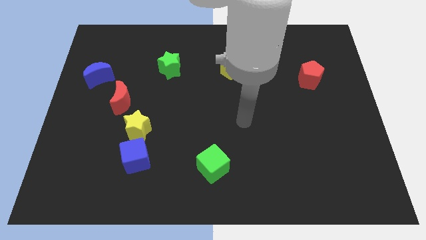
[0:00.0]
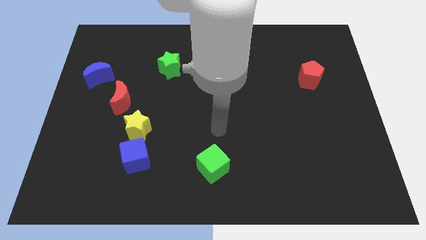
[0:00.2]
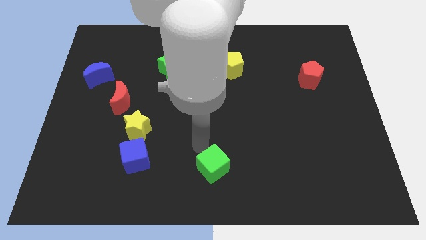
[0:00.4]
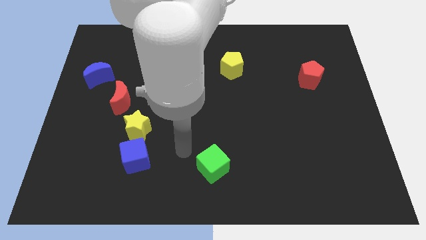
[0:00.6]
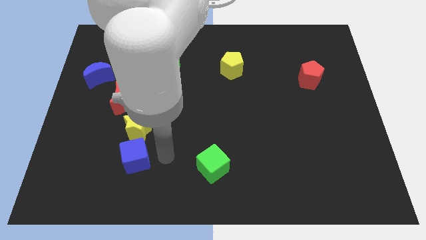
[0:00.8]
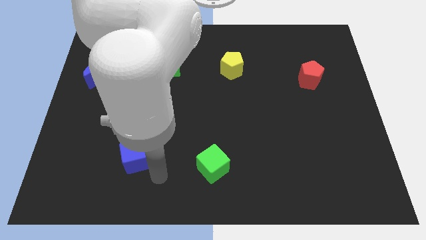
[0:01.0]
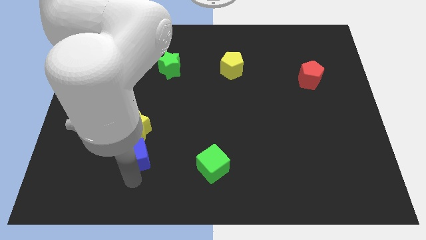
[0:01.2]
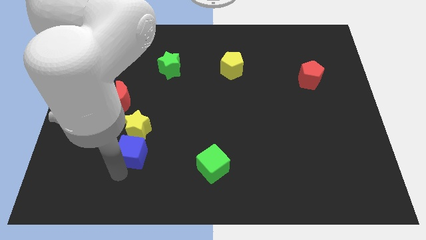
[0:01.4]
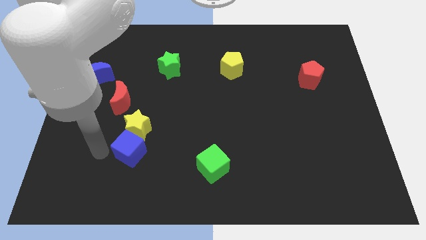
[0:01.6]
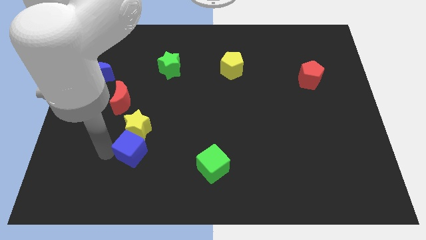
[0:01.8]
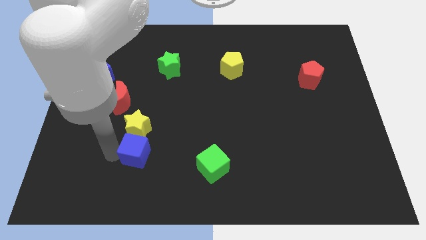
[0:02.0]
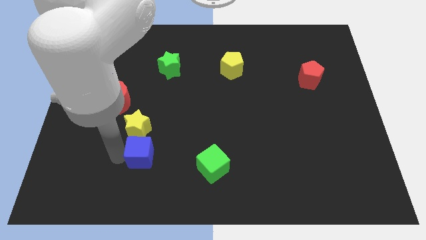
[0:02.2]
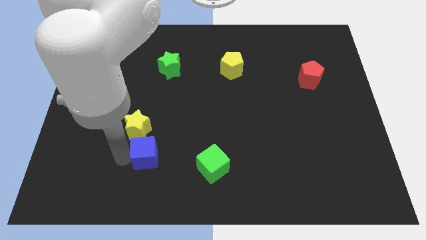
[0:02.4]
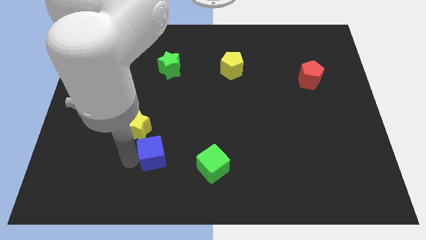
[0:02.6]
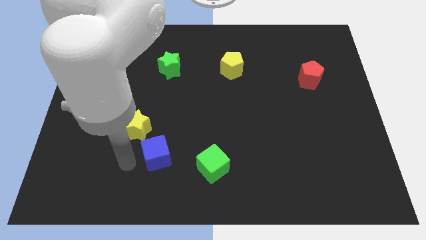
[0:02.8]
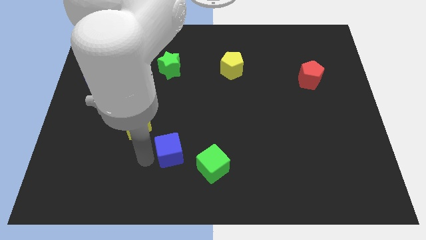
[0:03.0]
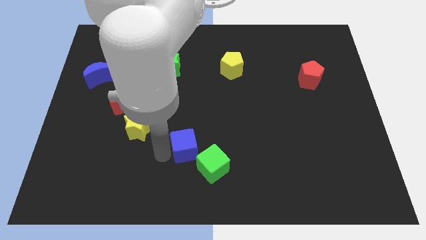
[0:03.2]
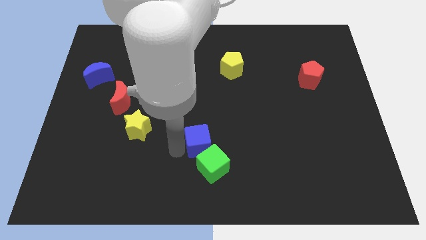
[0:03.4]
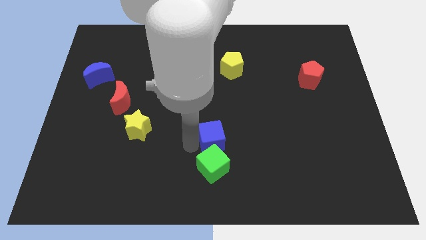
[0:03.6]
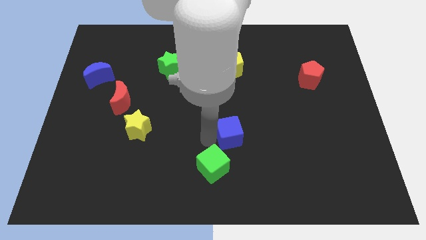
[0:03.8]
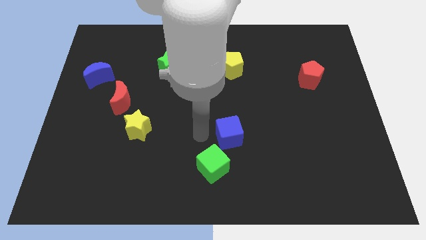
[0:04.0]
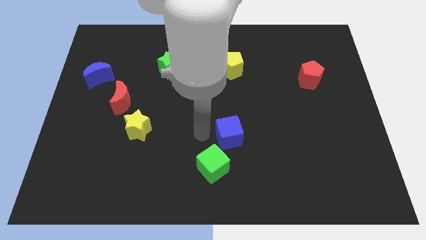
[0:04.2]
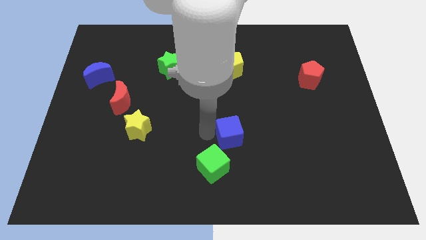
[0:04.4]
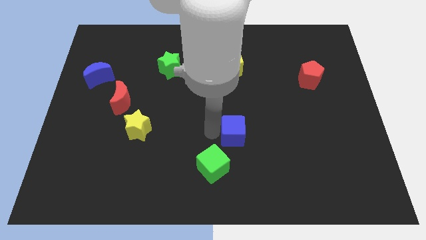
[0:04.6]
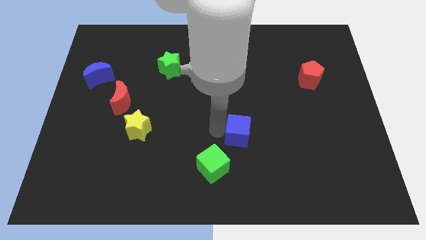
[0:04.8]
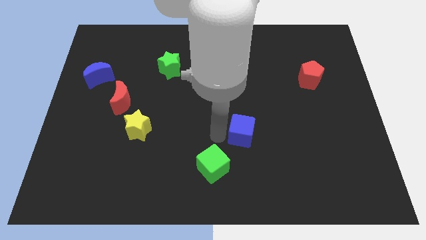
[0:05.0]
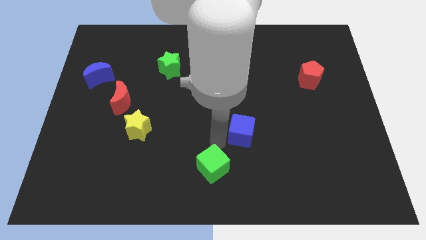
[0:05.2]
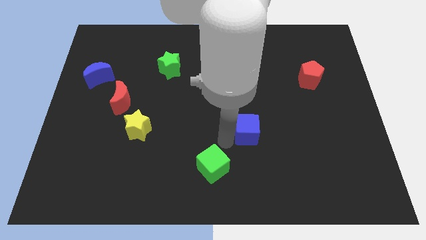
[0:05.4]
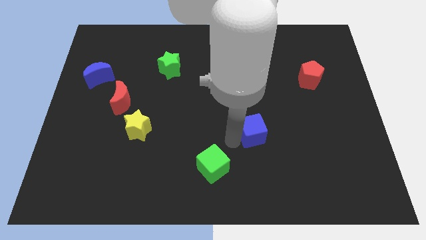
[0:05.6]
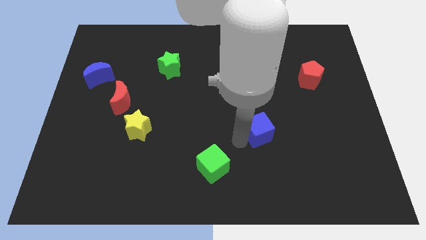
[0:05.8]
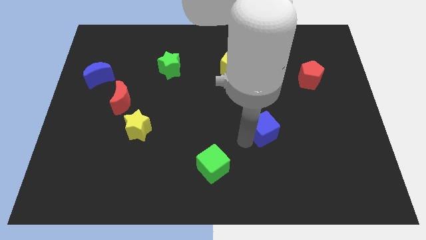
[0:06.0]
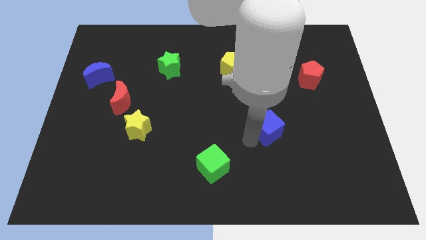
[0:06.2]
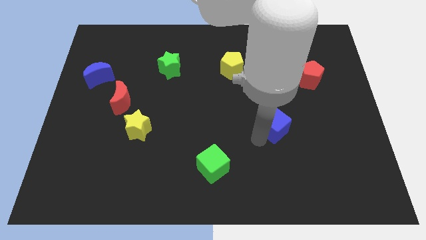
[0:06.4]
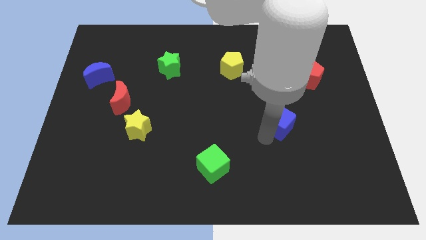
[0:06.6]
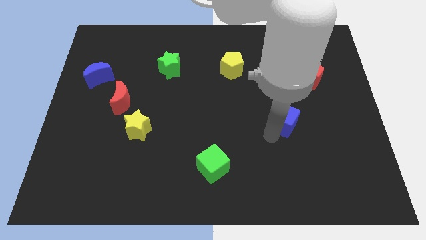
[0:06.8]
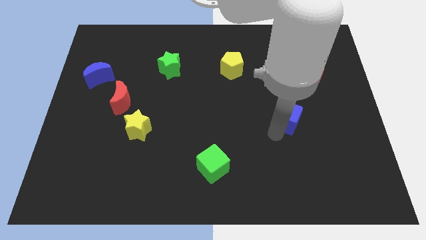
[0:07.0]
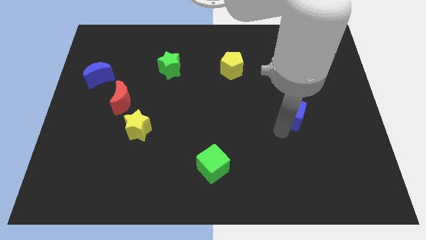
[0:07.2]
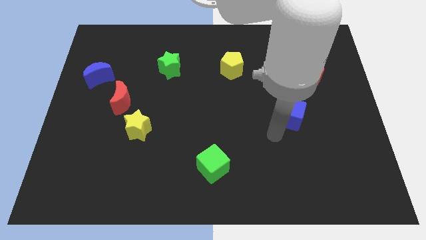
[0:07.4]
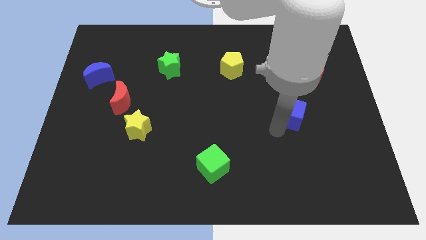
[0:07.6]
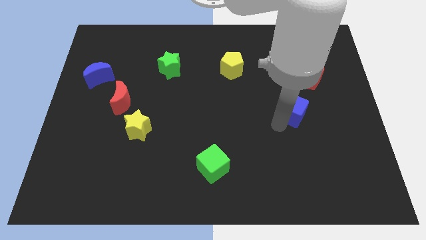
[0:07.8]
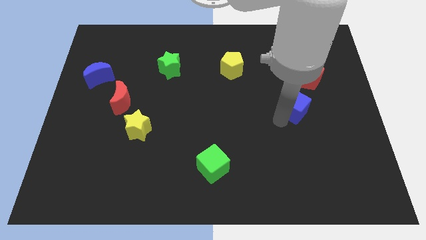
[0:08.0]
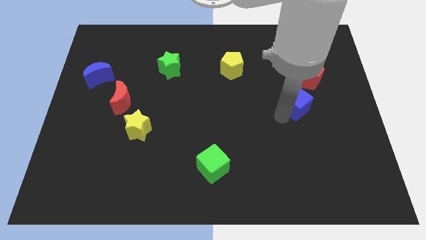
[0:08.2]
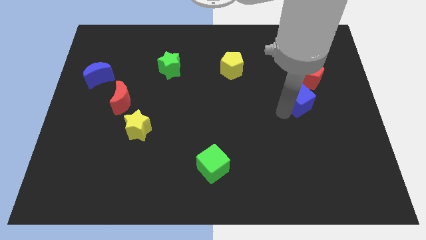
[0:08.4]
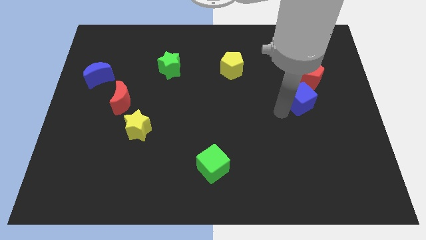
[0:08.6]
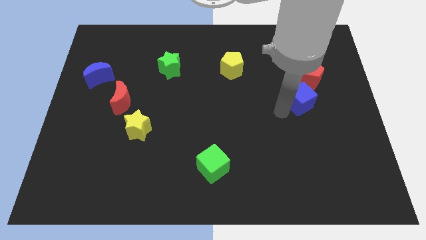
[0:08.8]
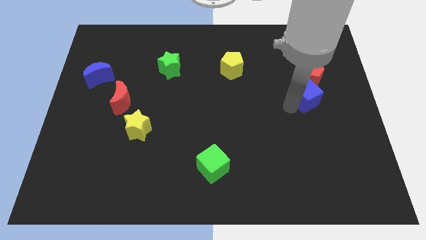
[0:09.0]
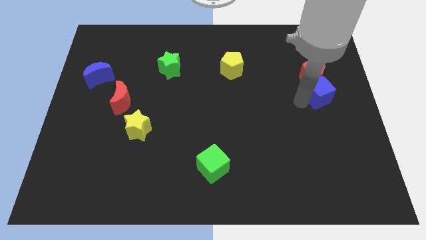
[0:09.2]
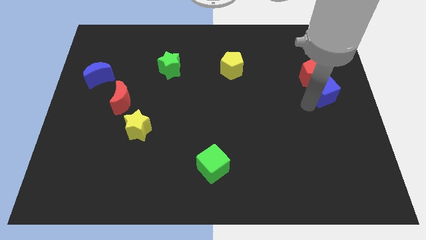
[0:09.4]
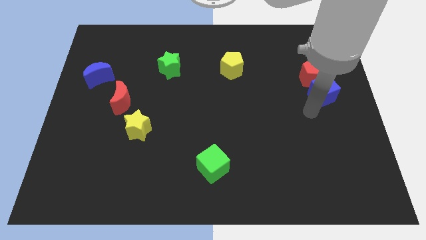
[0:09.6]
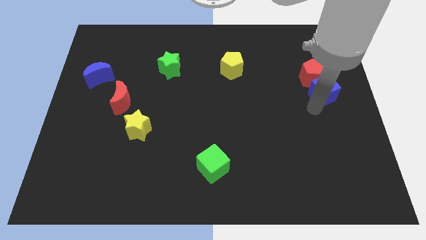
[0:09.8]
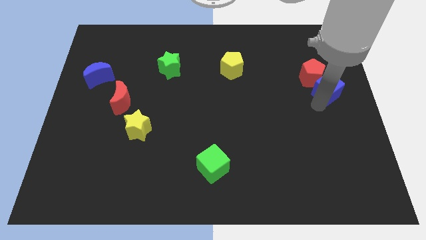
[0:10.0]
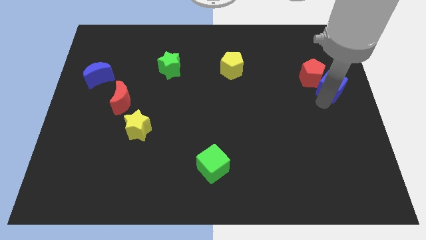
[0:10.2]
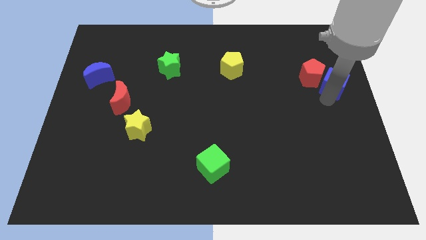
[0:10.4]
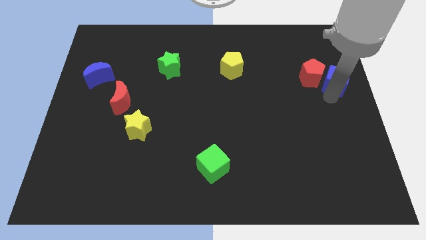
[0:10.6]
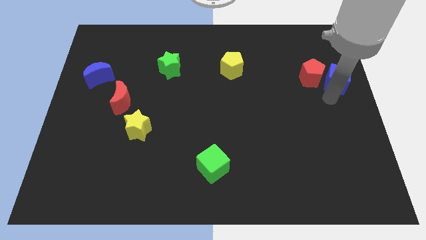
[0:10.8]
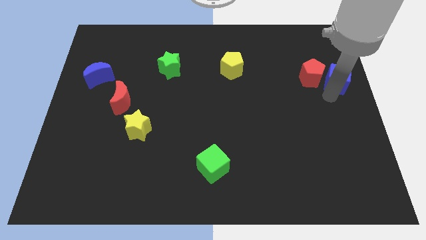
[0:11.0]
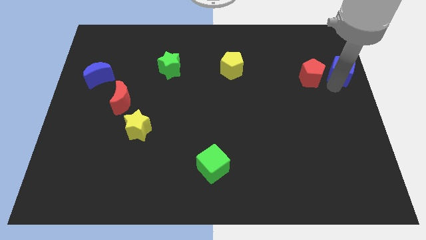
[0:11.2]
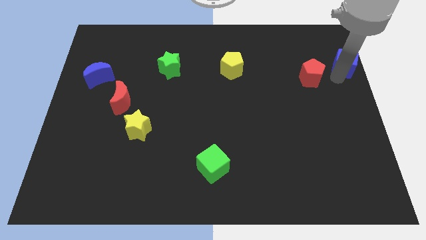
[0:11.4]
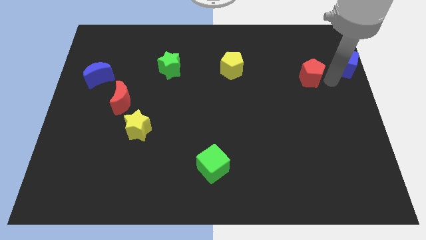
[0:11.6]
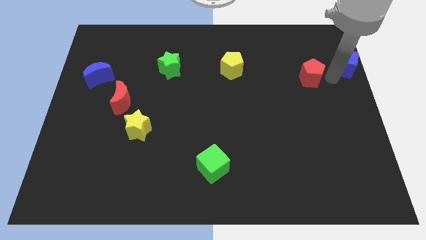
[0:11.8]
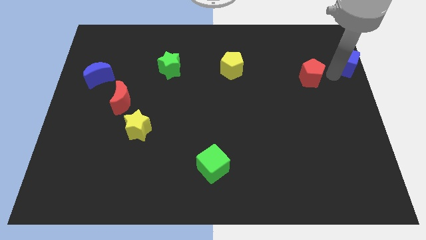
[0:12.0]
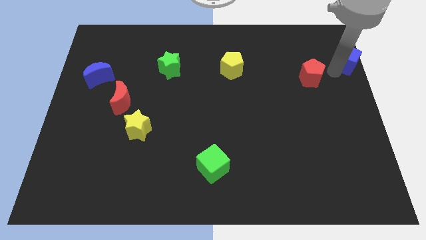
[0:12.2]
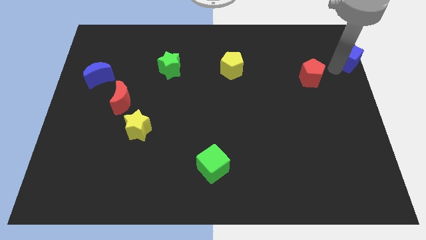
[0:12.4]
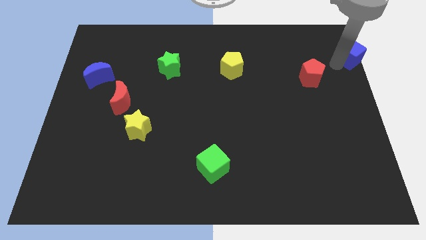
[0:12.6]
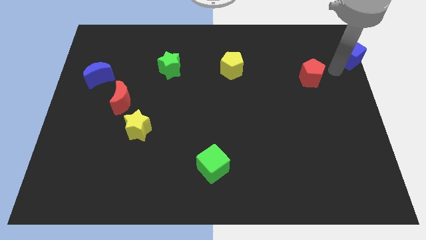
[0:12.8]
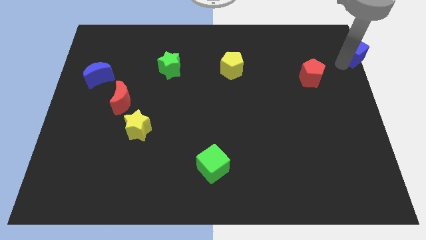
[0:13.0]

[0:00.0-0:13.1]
move the blue cube to the upper right corner
